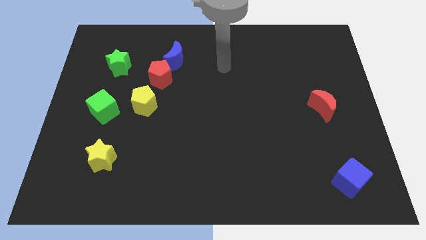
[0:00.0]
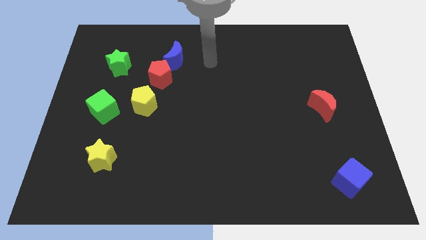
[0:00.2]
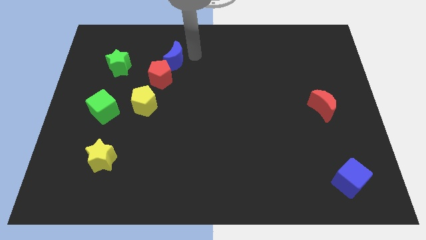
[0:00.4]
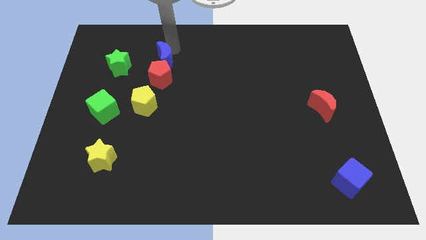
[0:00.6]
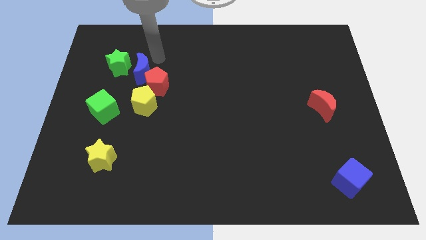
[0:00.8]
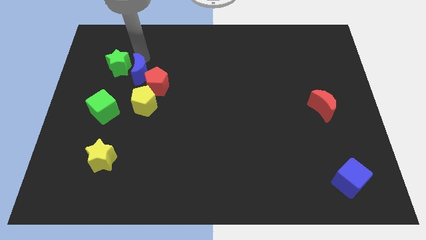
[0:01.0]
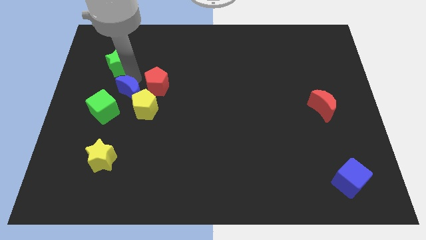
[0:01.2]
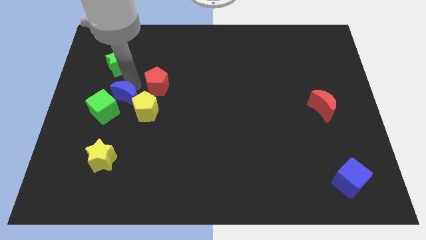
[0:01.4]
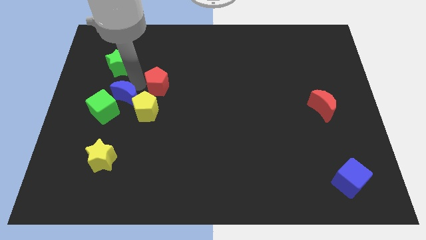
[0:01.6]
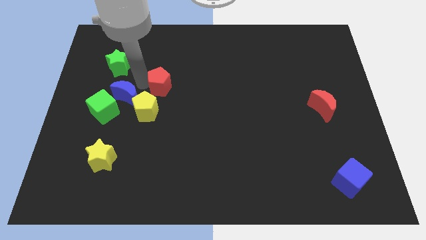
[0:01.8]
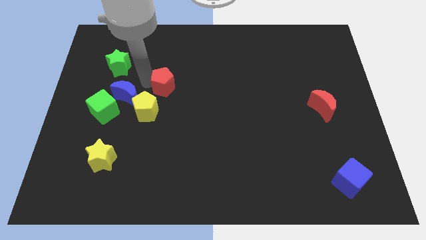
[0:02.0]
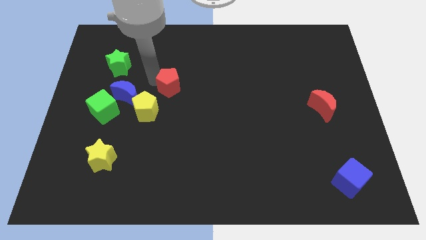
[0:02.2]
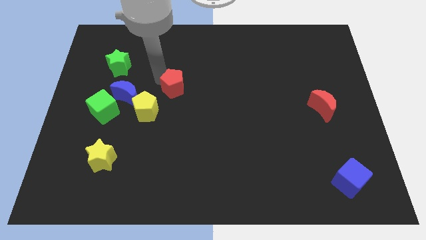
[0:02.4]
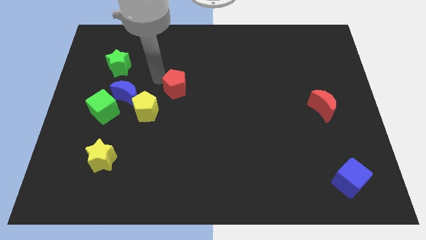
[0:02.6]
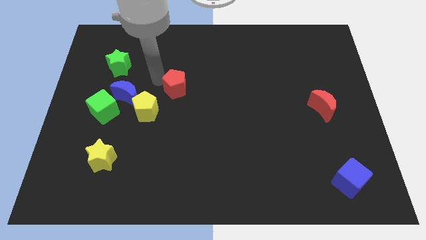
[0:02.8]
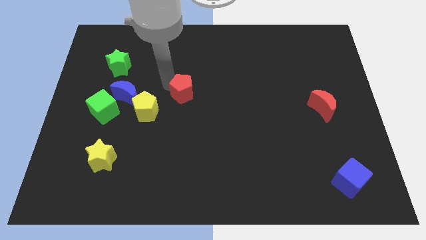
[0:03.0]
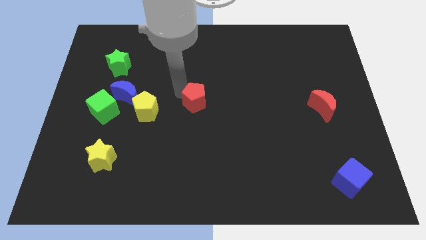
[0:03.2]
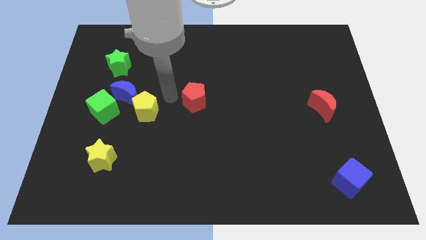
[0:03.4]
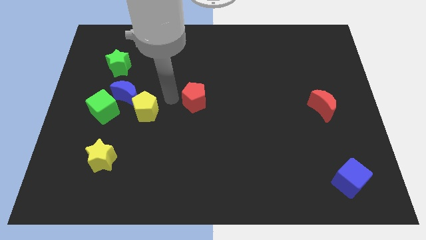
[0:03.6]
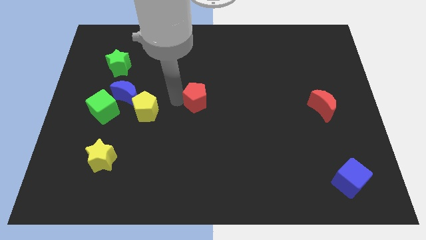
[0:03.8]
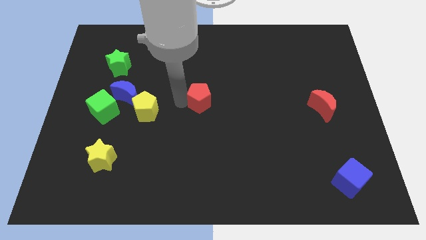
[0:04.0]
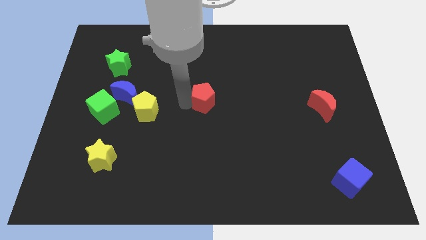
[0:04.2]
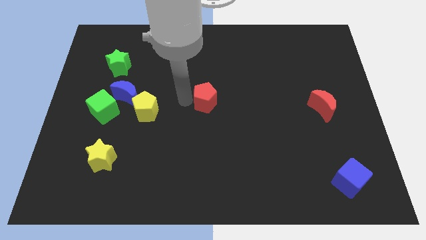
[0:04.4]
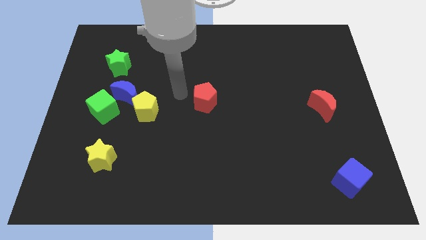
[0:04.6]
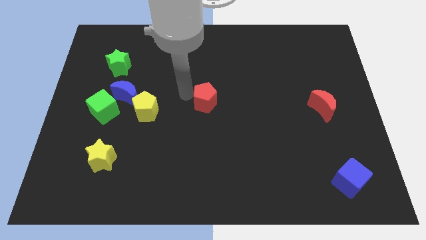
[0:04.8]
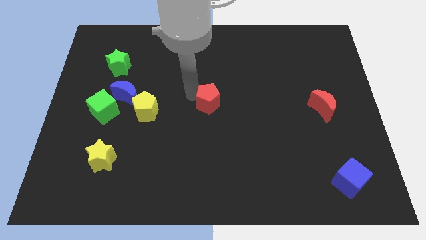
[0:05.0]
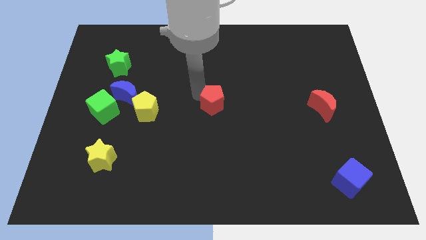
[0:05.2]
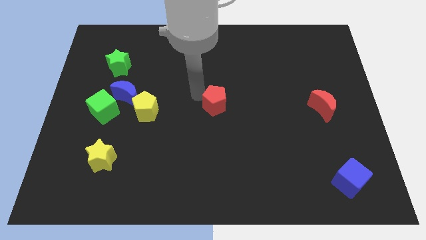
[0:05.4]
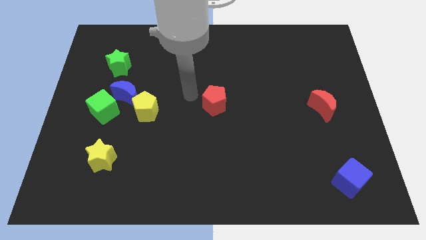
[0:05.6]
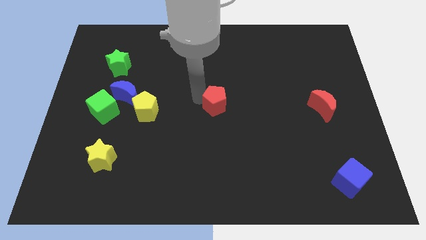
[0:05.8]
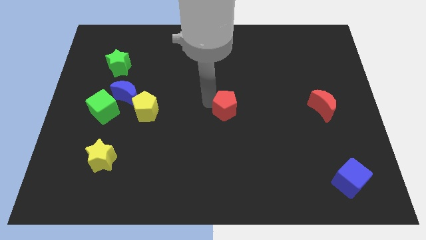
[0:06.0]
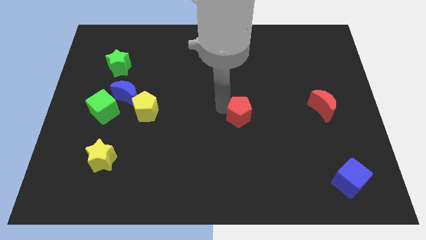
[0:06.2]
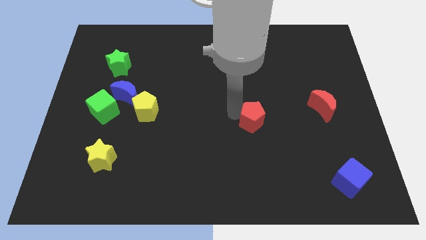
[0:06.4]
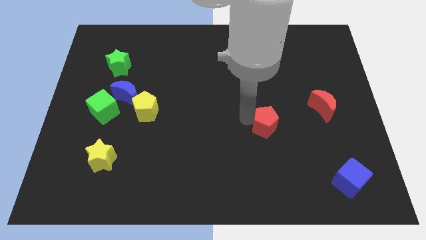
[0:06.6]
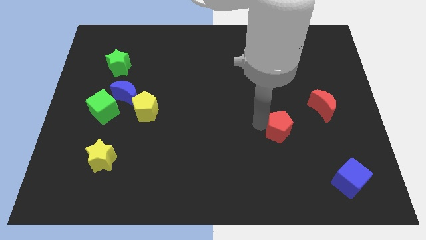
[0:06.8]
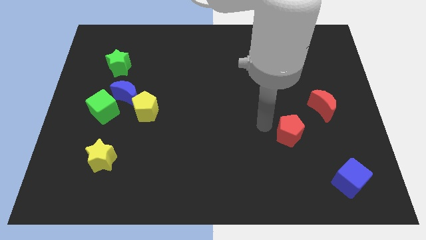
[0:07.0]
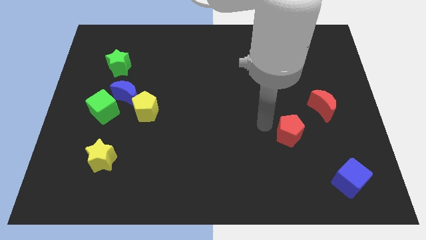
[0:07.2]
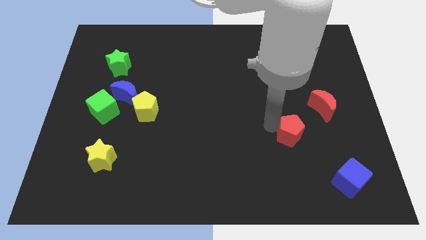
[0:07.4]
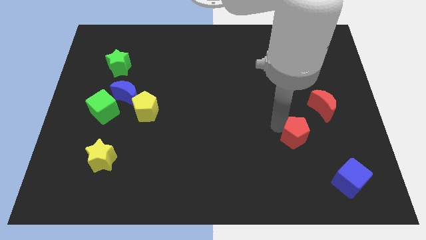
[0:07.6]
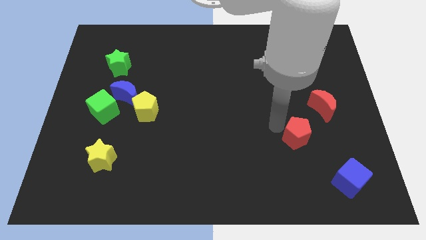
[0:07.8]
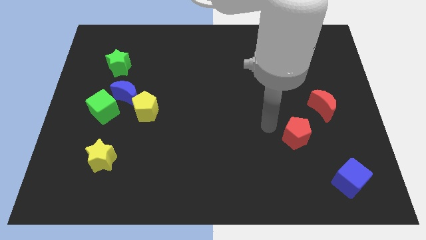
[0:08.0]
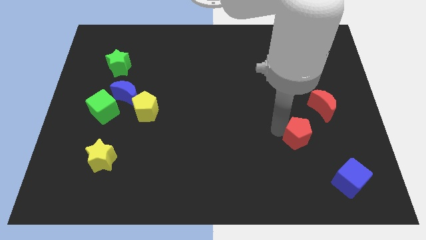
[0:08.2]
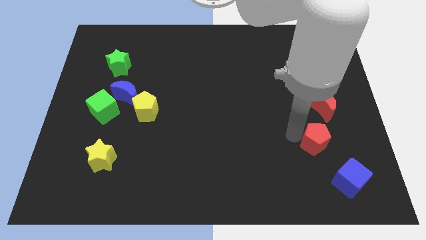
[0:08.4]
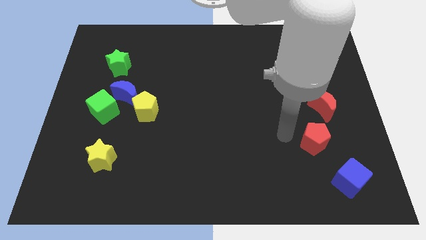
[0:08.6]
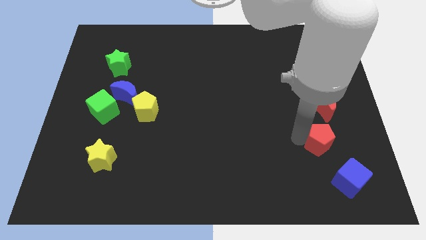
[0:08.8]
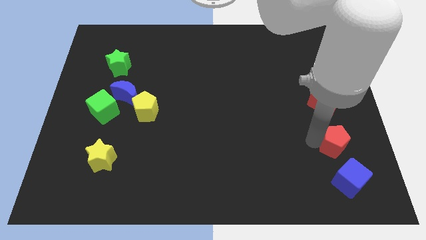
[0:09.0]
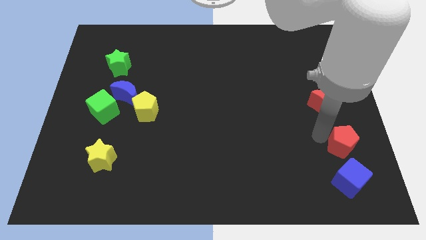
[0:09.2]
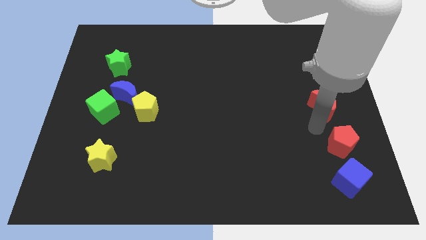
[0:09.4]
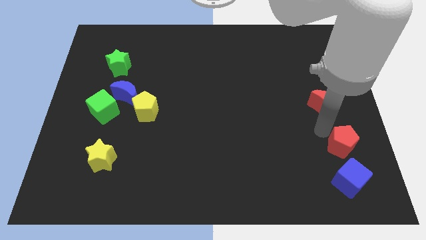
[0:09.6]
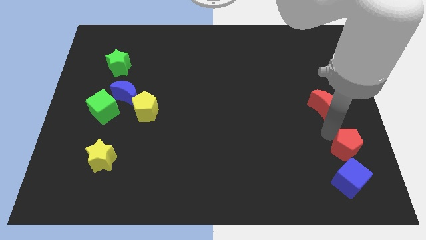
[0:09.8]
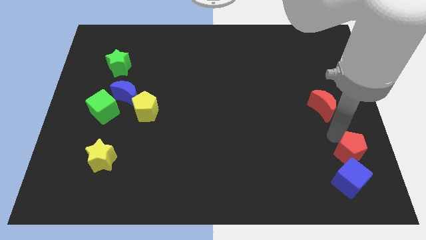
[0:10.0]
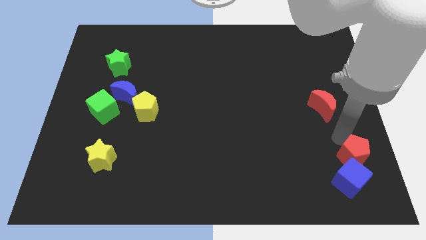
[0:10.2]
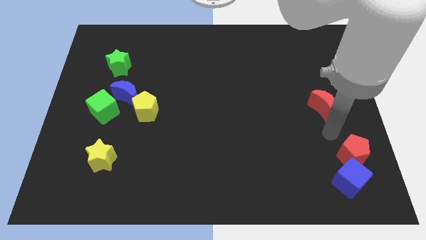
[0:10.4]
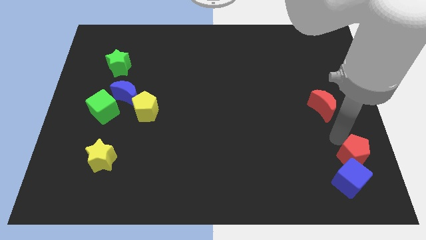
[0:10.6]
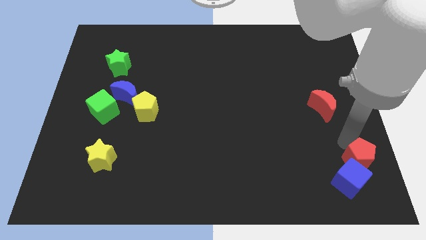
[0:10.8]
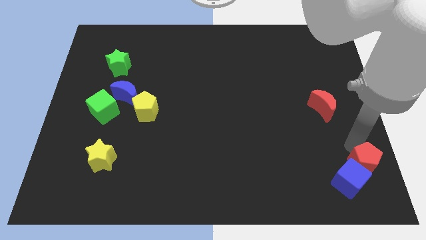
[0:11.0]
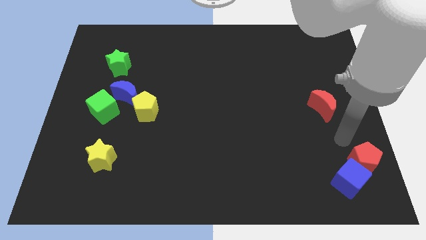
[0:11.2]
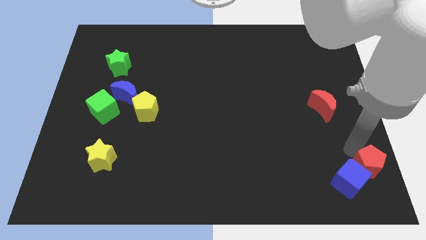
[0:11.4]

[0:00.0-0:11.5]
put the red pentagon to the bottom right
